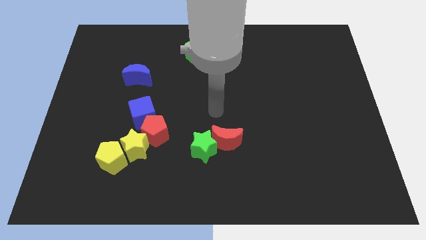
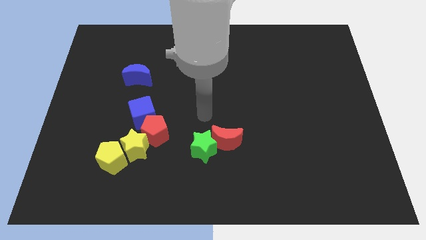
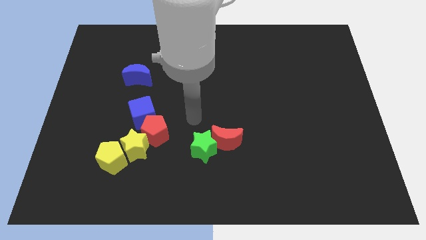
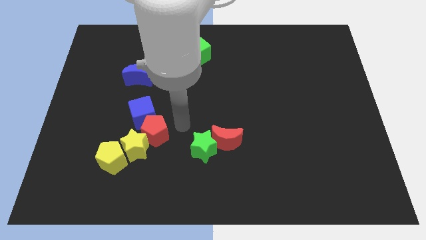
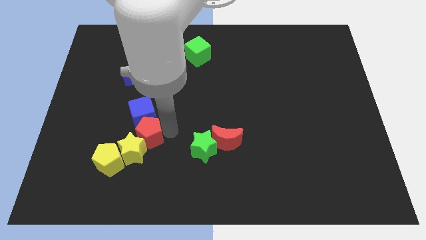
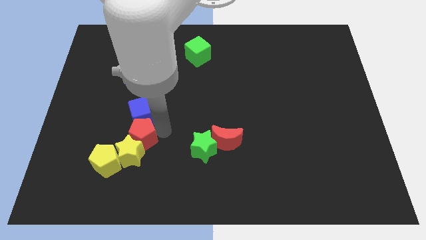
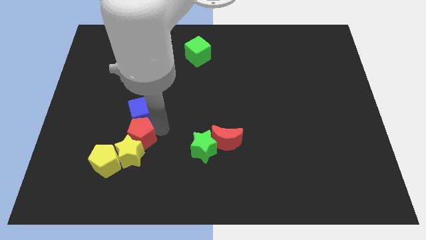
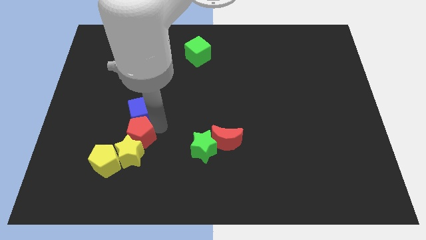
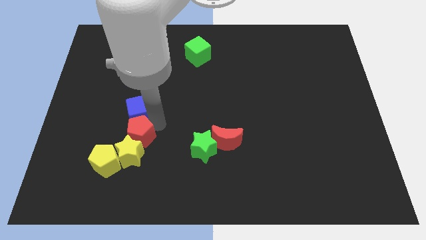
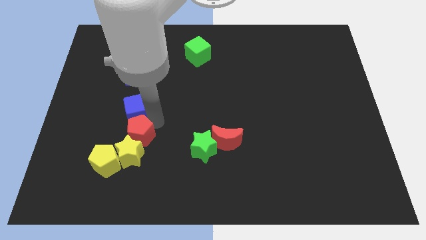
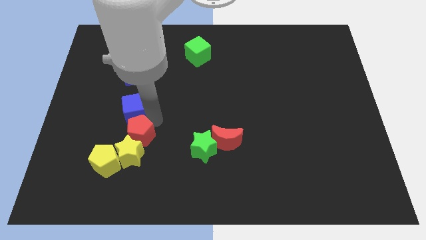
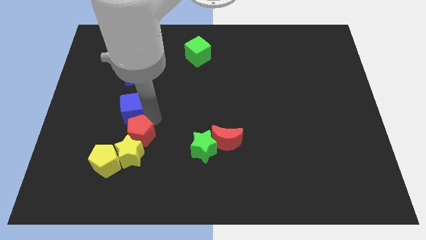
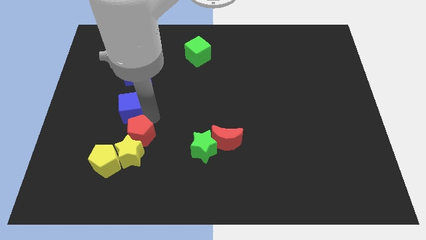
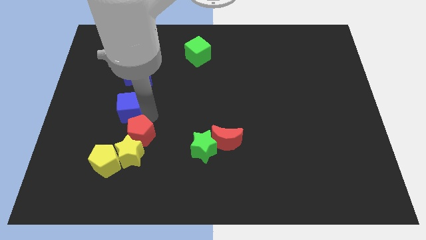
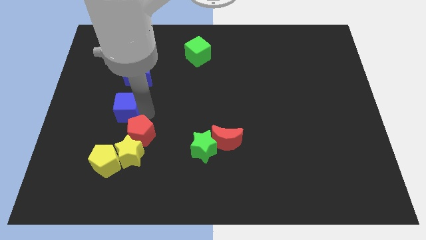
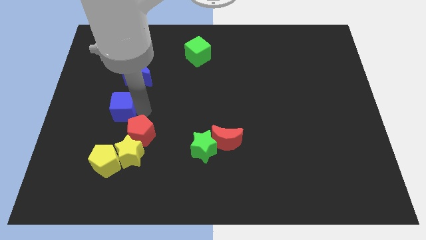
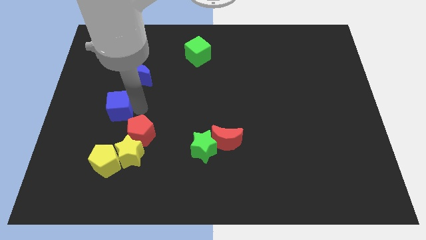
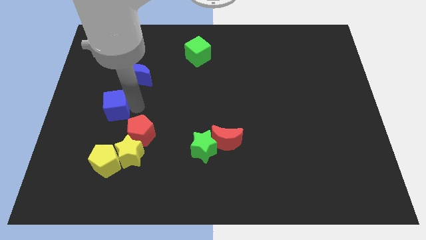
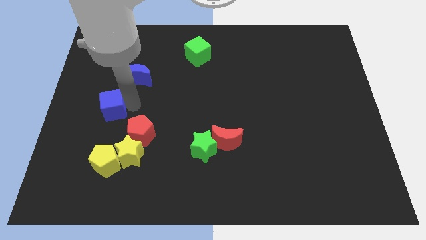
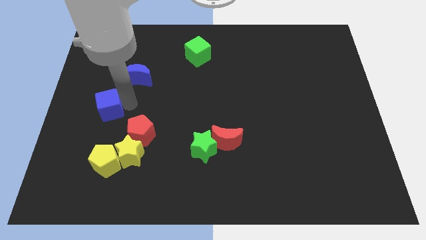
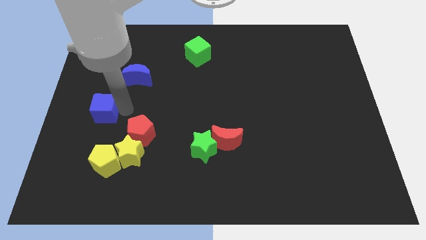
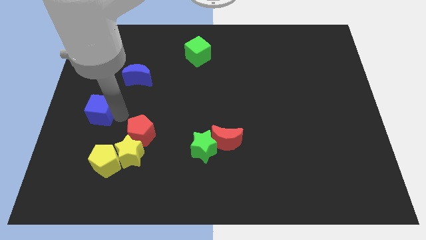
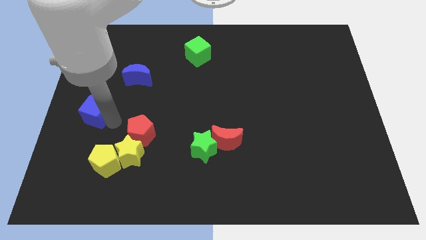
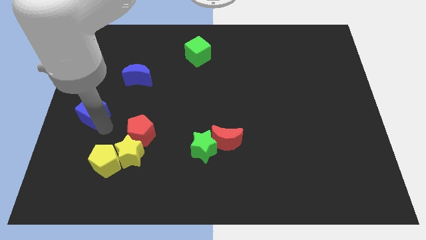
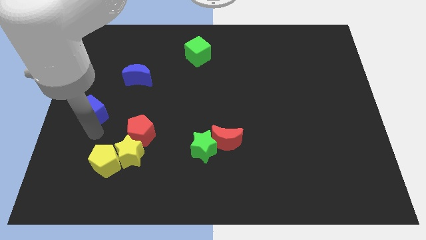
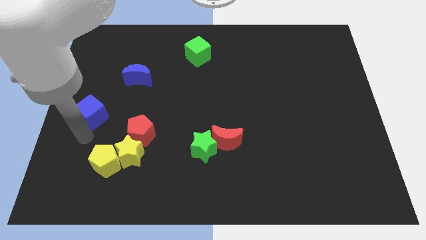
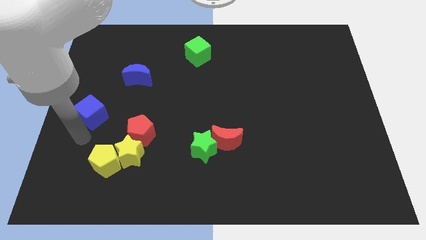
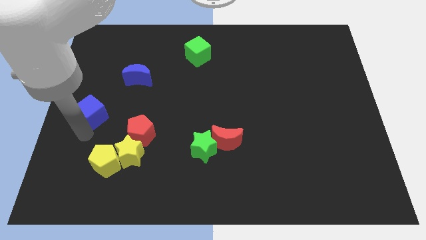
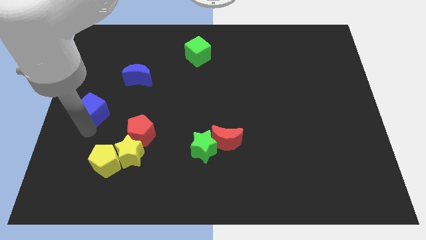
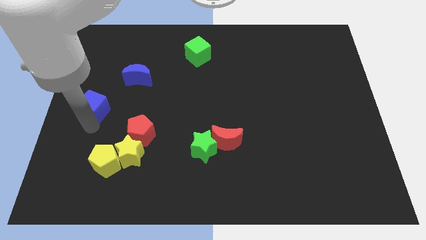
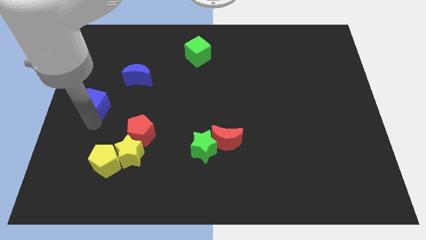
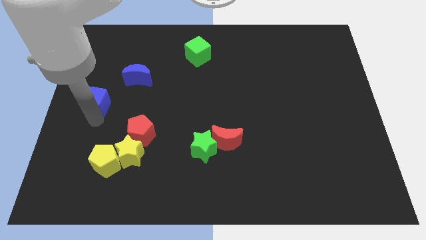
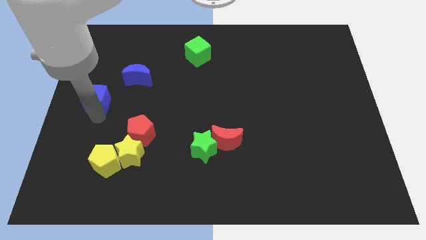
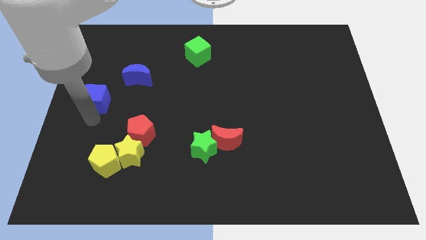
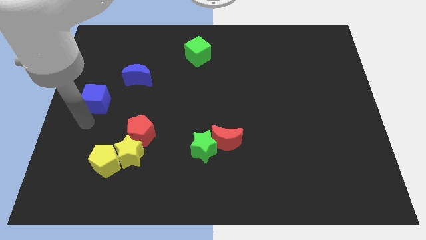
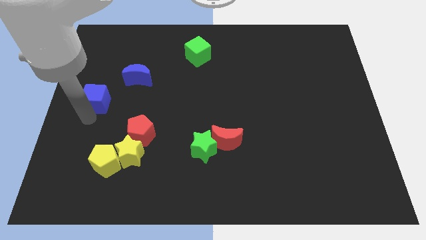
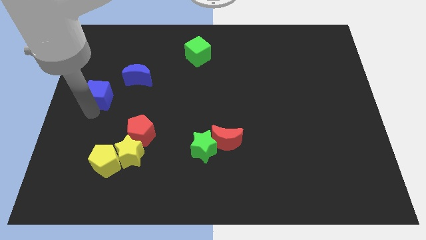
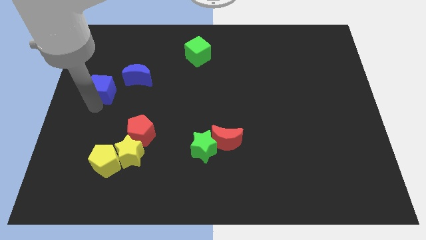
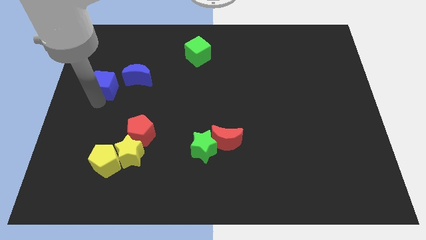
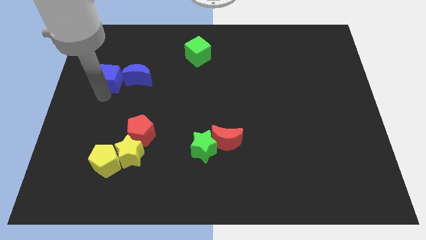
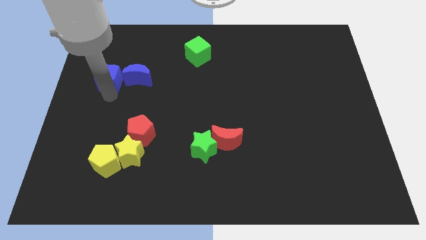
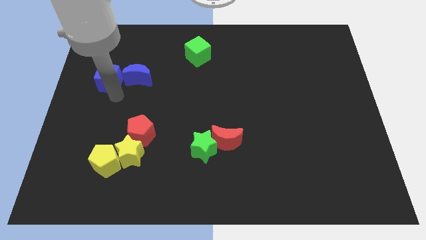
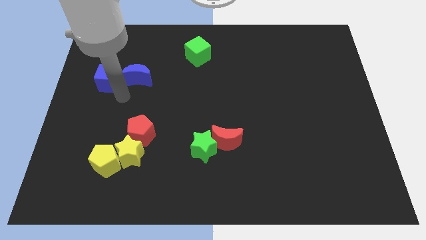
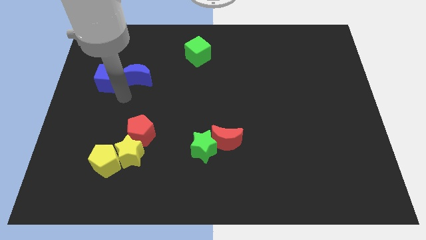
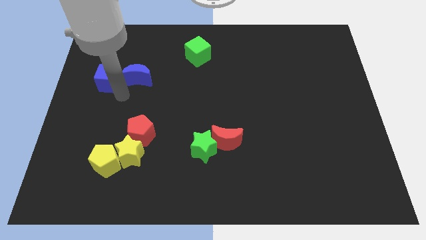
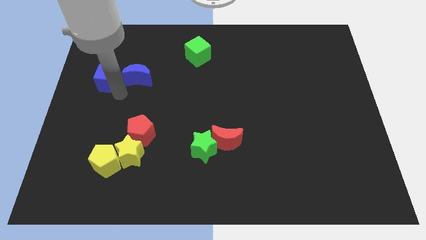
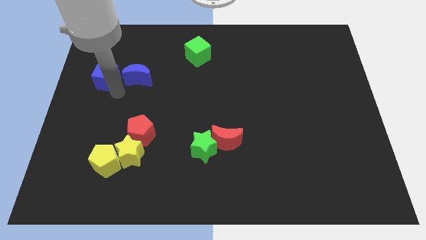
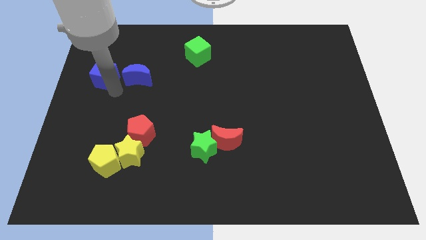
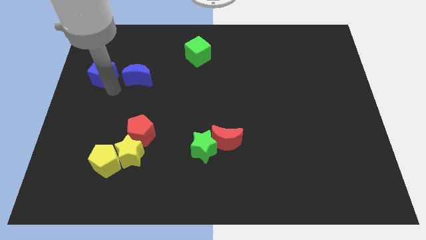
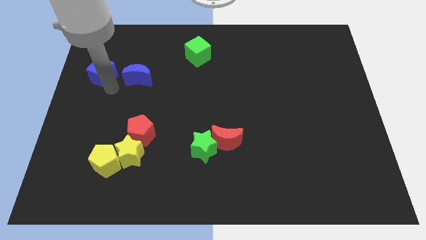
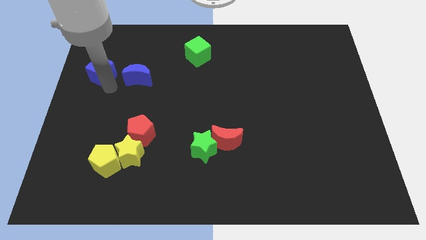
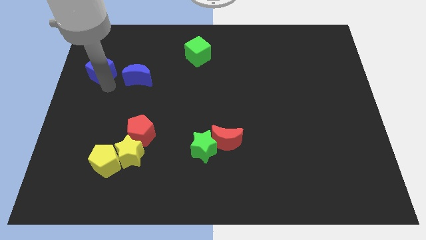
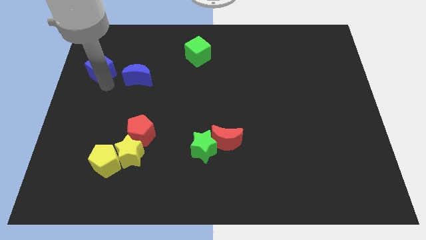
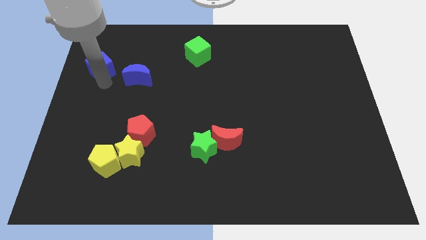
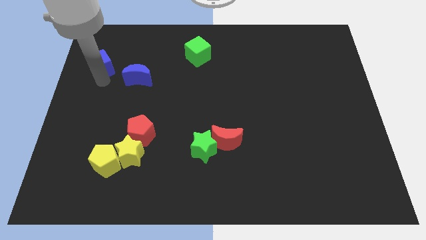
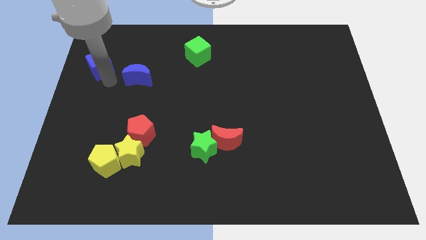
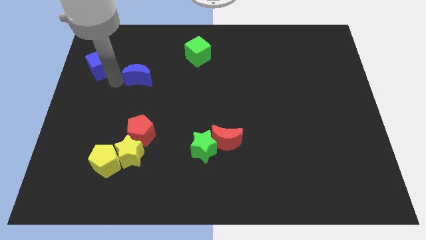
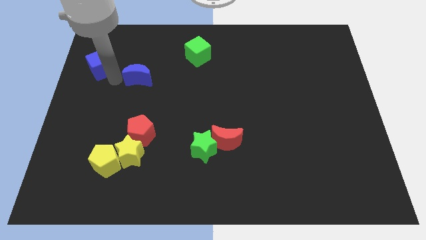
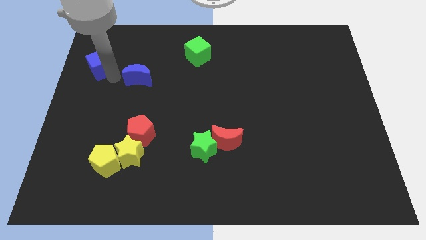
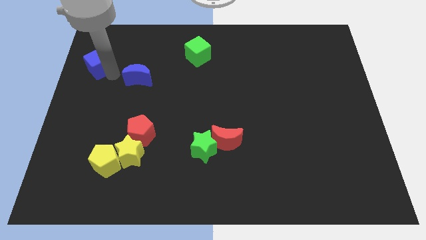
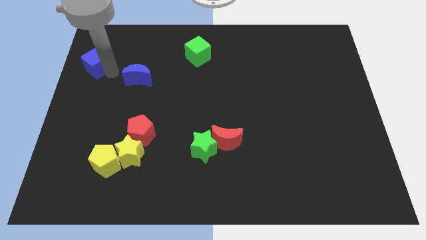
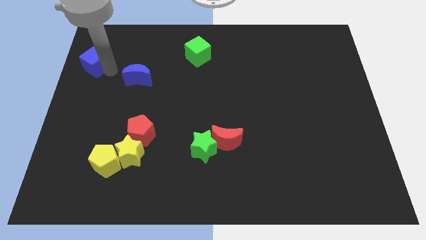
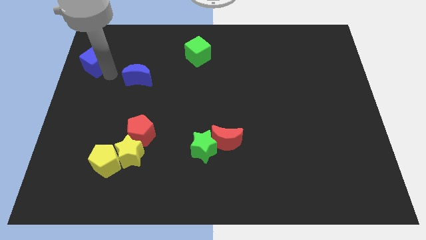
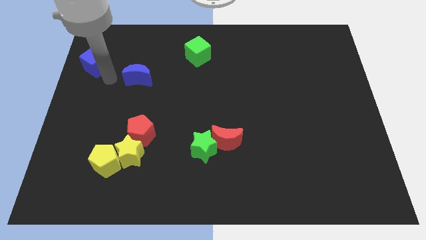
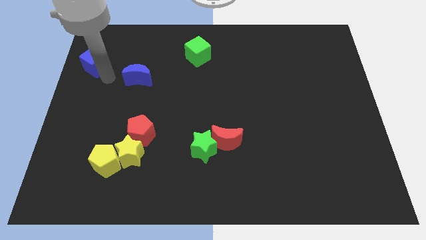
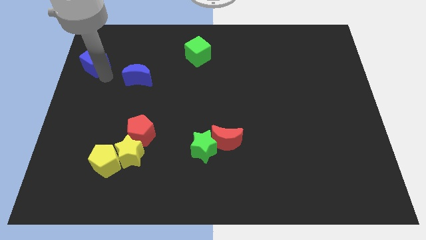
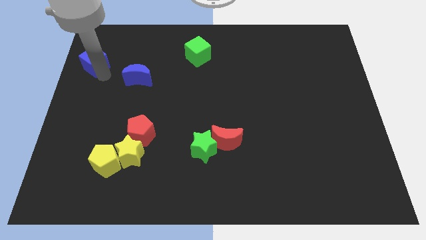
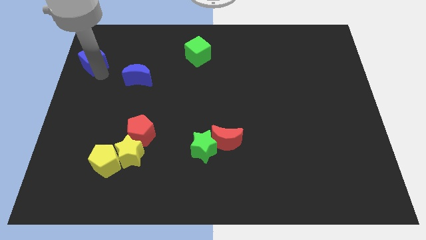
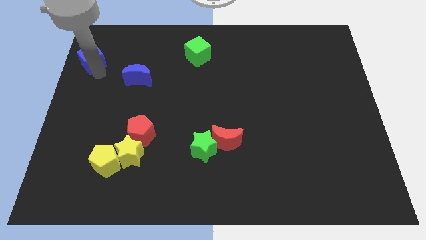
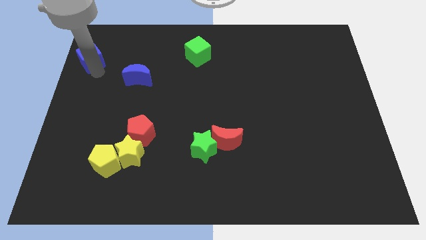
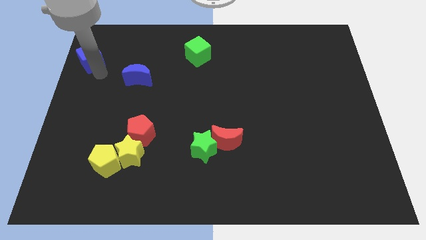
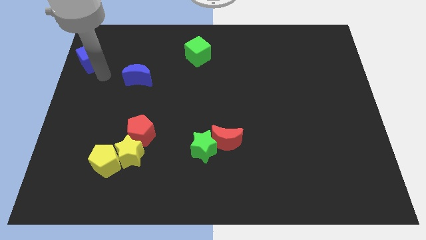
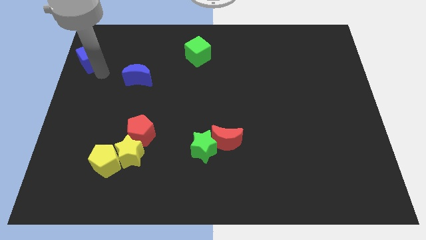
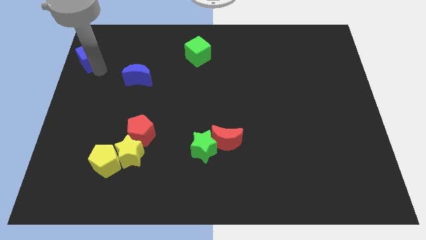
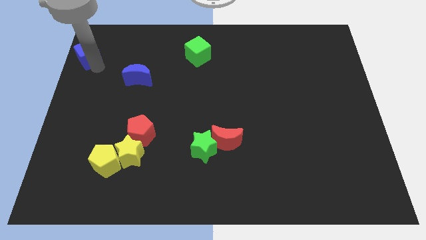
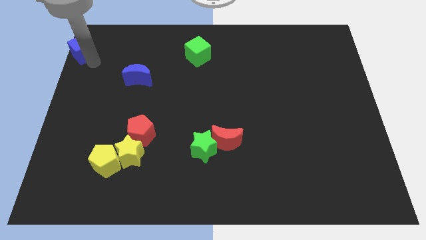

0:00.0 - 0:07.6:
push the blue cube to the top left
